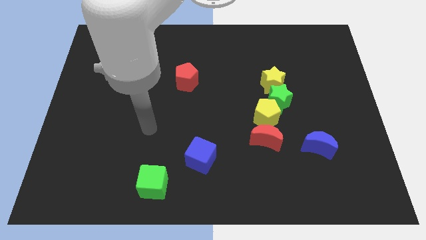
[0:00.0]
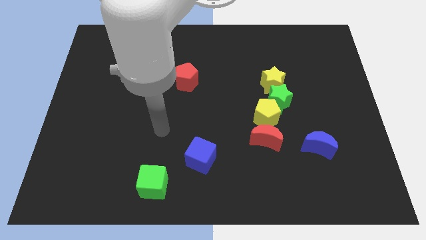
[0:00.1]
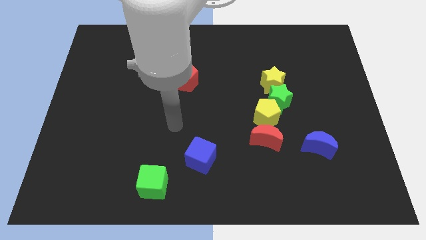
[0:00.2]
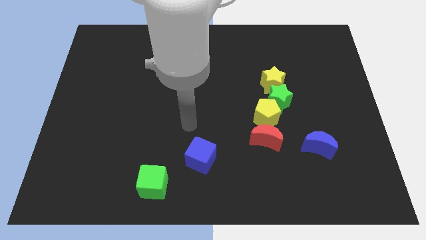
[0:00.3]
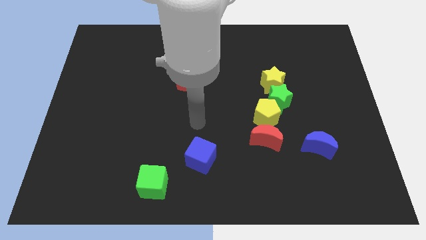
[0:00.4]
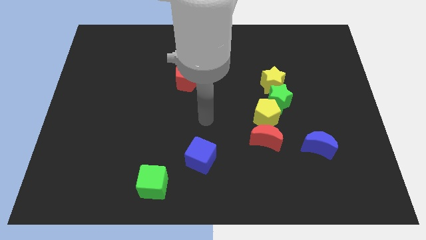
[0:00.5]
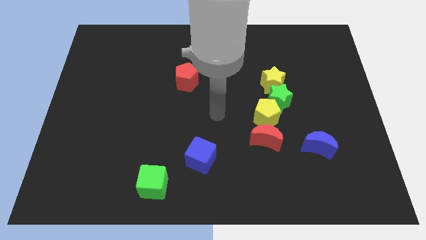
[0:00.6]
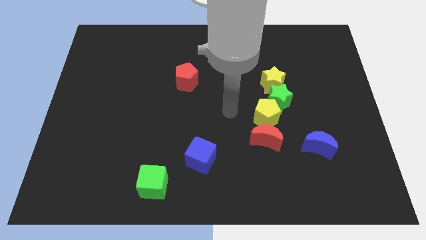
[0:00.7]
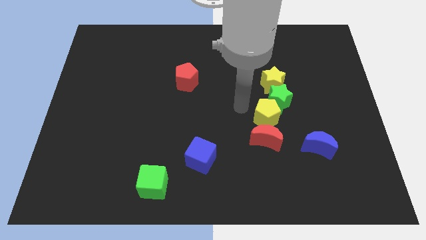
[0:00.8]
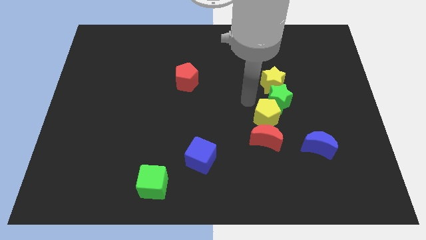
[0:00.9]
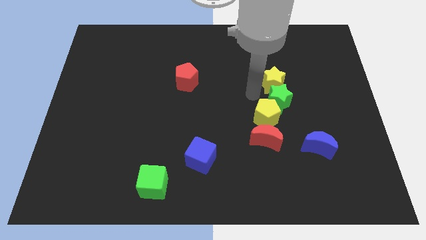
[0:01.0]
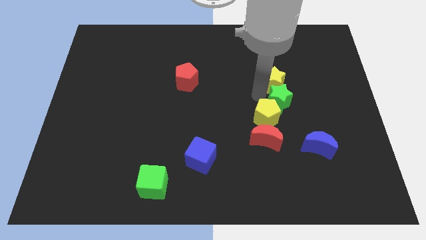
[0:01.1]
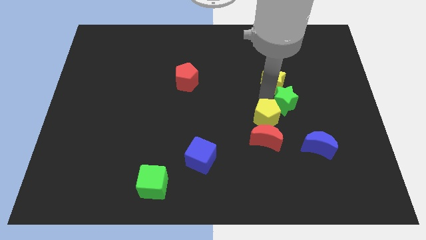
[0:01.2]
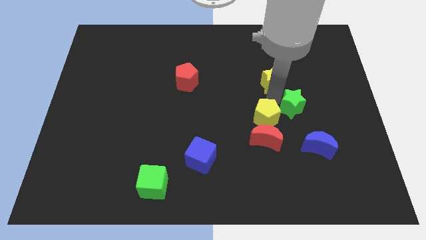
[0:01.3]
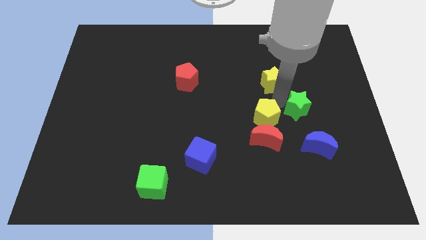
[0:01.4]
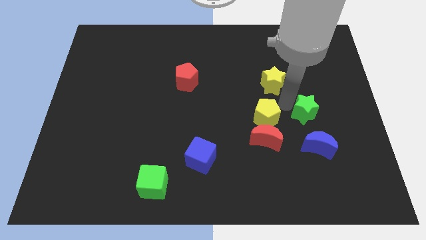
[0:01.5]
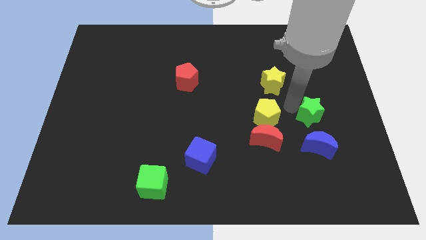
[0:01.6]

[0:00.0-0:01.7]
move the green star away from the yellow star and yellow pentagon

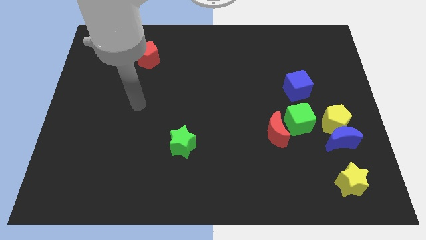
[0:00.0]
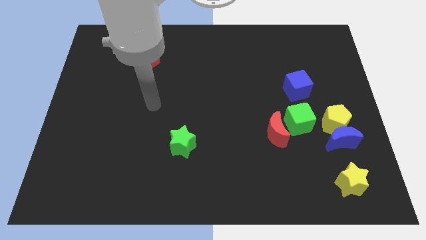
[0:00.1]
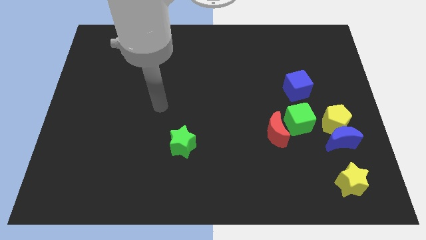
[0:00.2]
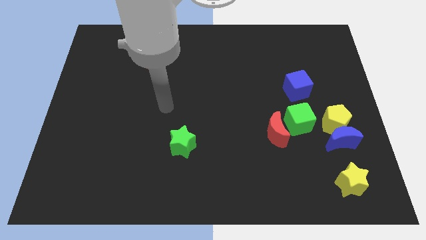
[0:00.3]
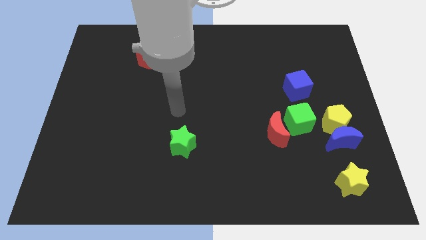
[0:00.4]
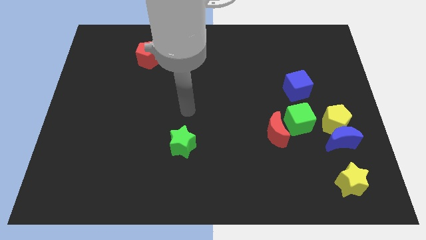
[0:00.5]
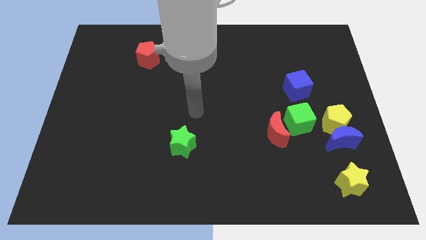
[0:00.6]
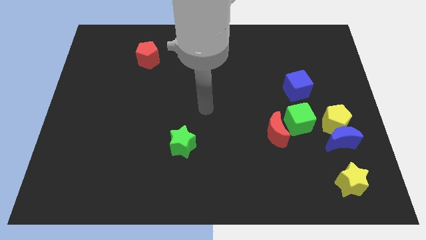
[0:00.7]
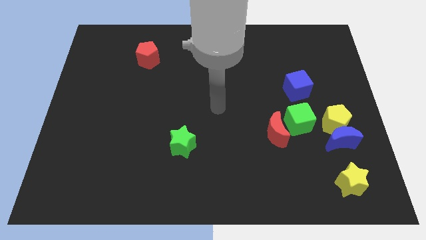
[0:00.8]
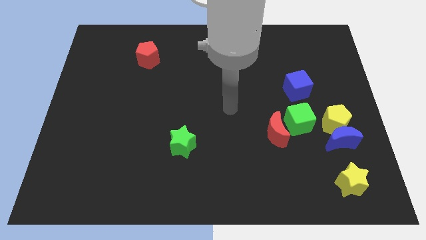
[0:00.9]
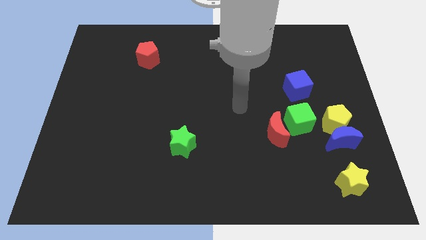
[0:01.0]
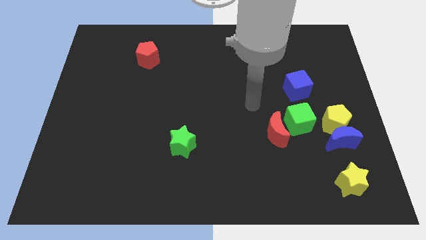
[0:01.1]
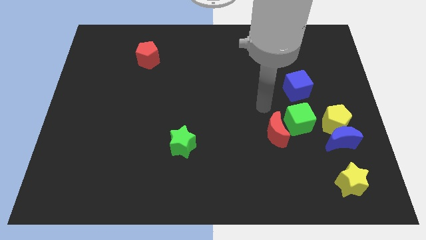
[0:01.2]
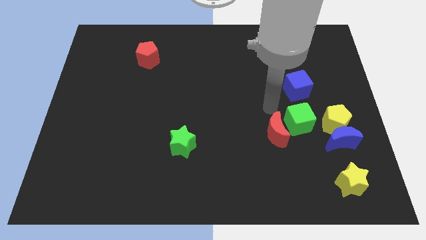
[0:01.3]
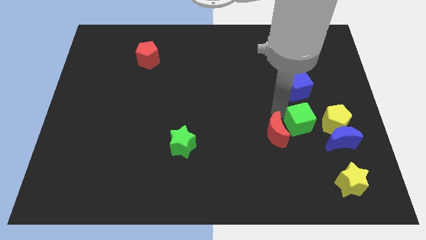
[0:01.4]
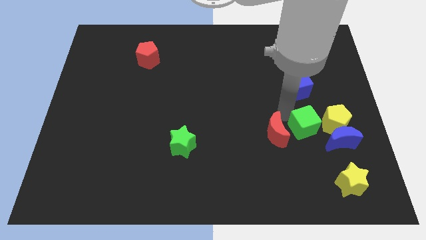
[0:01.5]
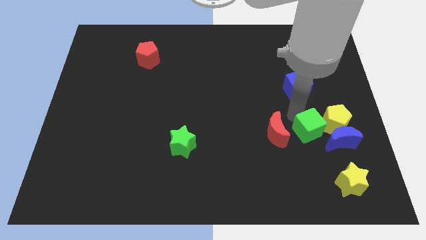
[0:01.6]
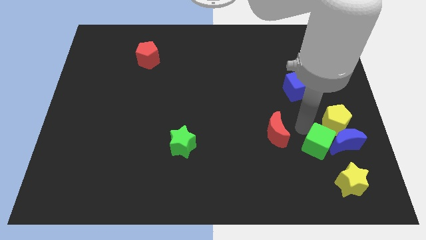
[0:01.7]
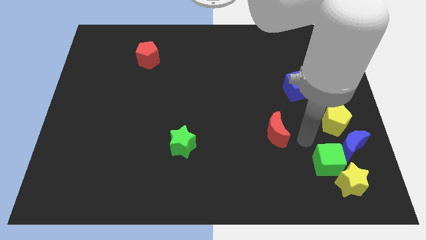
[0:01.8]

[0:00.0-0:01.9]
separate the red moon from the green cube

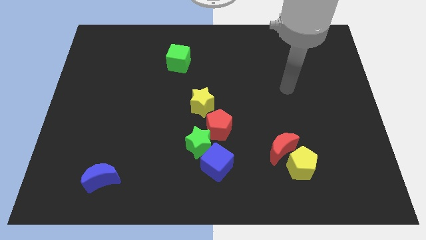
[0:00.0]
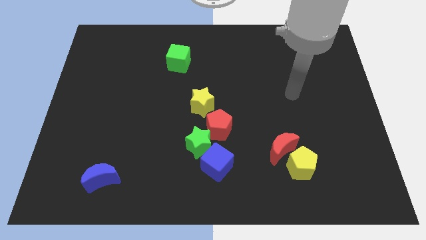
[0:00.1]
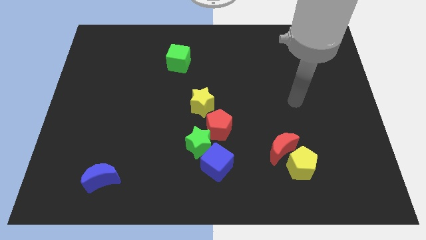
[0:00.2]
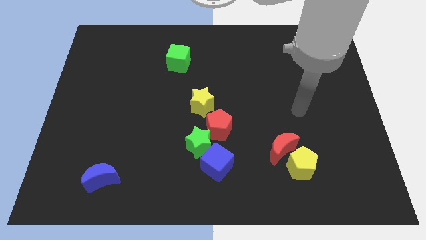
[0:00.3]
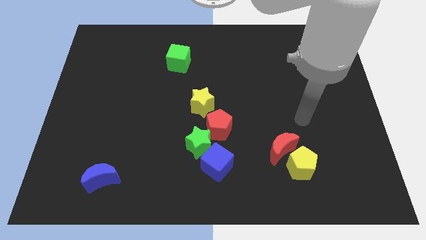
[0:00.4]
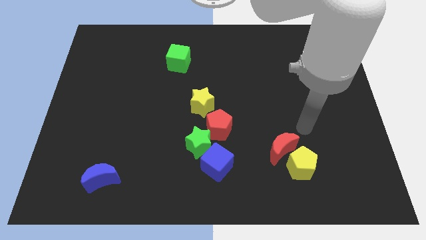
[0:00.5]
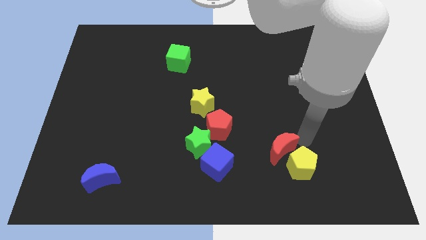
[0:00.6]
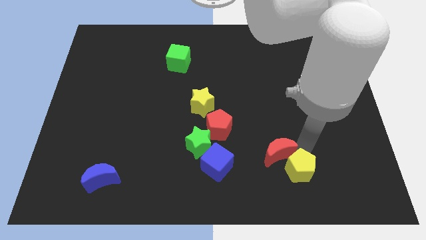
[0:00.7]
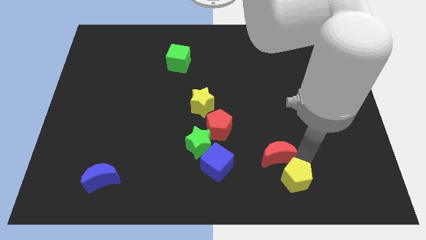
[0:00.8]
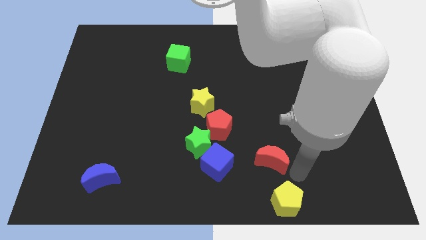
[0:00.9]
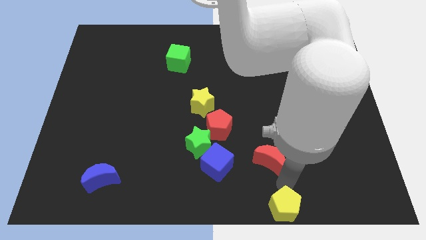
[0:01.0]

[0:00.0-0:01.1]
separate the red moon from the yellow pentagon

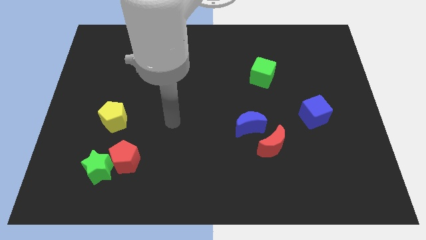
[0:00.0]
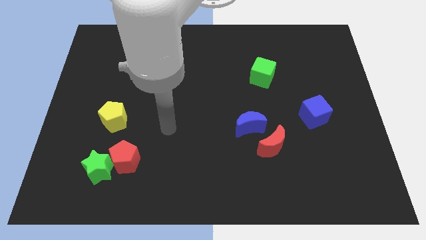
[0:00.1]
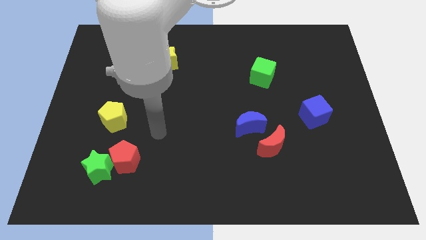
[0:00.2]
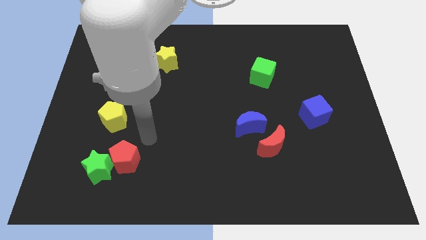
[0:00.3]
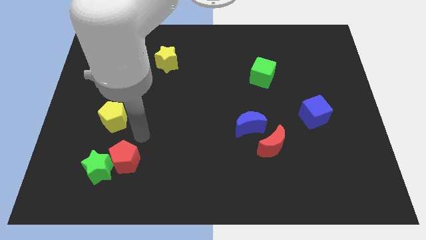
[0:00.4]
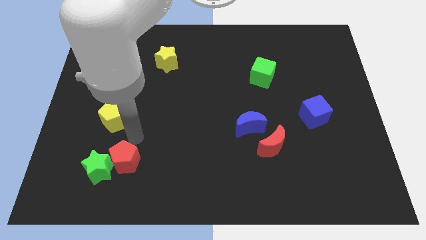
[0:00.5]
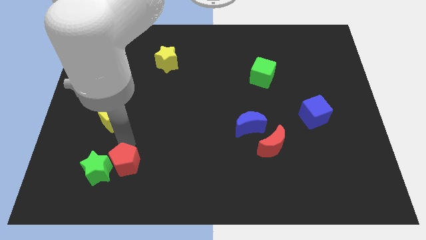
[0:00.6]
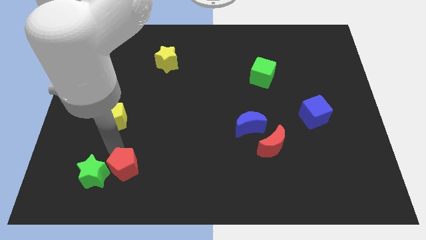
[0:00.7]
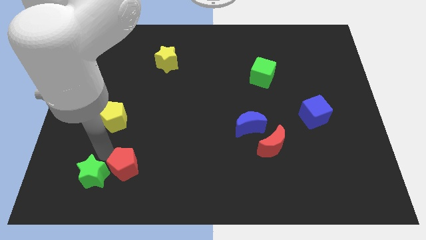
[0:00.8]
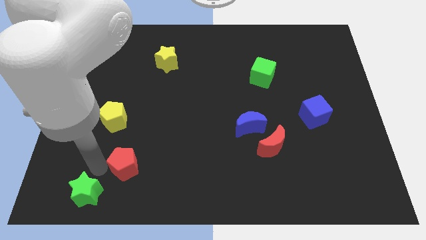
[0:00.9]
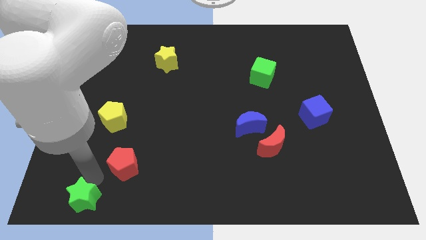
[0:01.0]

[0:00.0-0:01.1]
separate the red pentagon from the green star

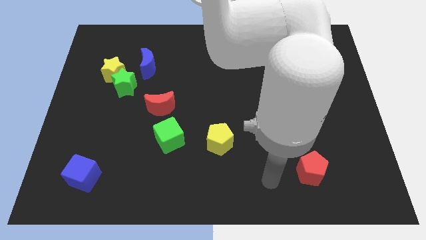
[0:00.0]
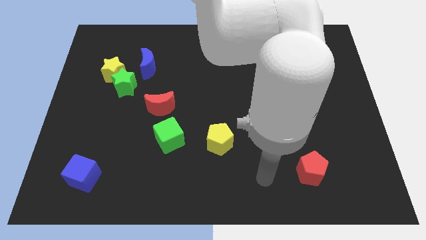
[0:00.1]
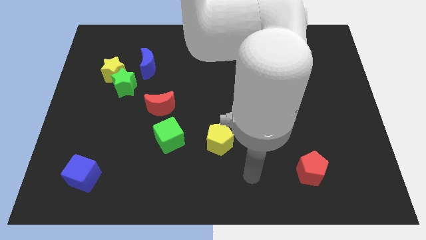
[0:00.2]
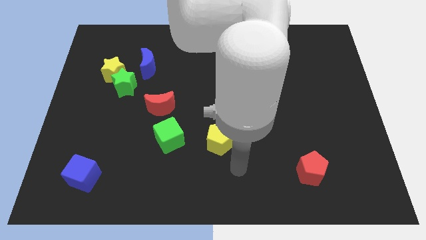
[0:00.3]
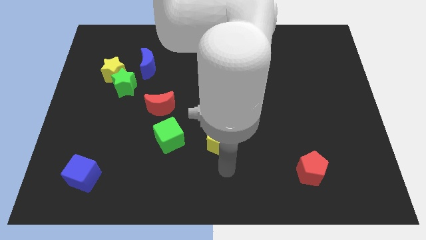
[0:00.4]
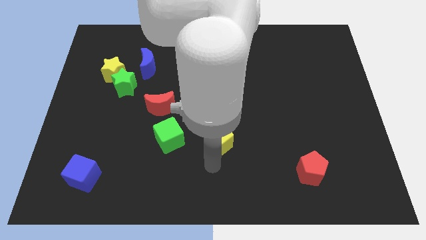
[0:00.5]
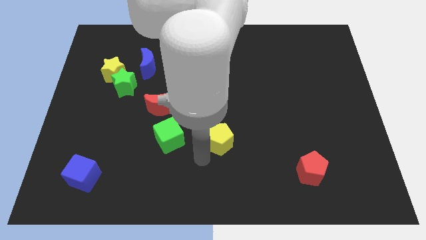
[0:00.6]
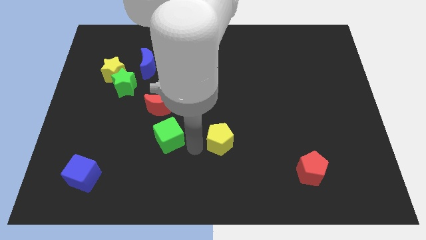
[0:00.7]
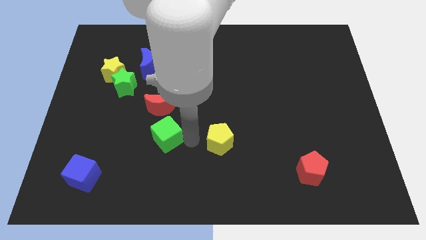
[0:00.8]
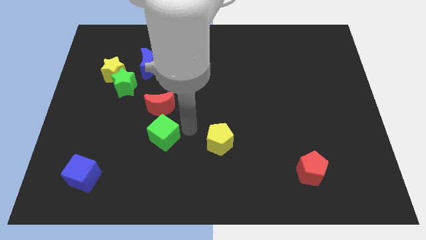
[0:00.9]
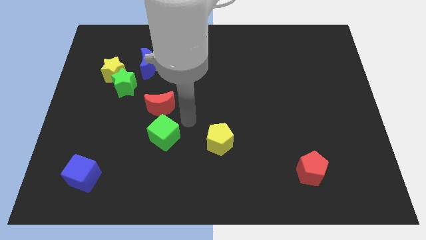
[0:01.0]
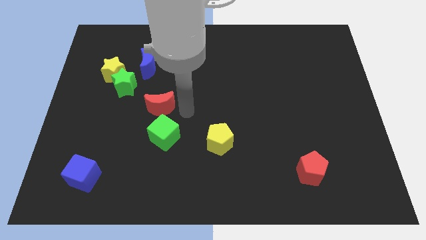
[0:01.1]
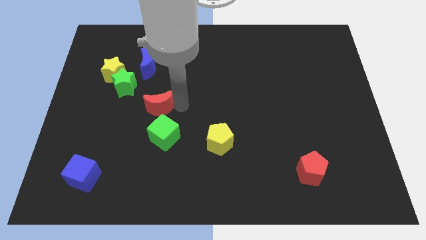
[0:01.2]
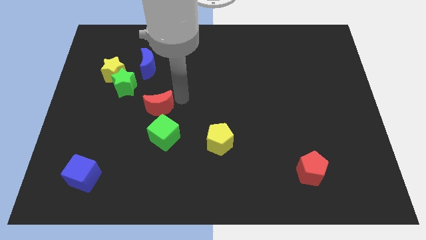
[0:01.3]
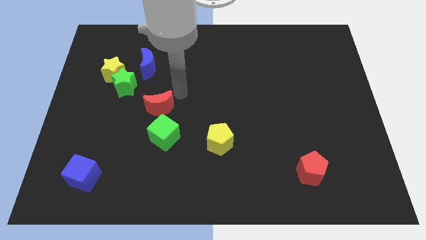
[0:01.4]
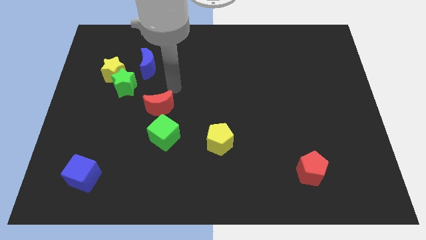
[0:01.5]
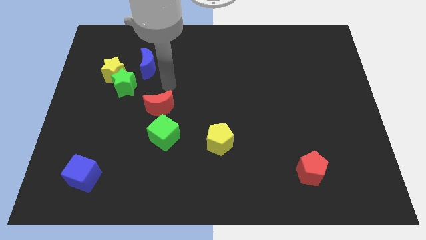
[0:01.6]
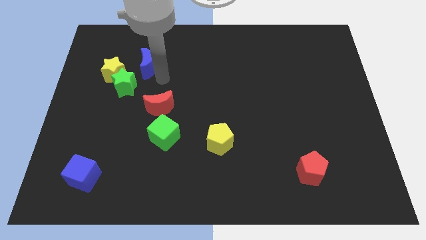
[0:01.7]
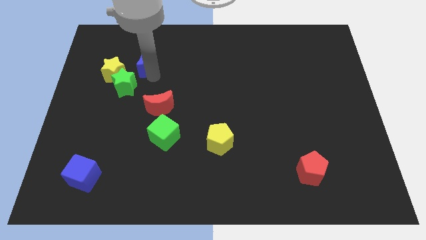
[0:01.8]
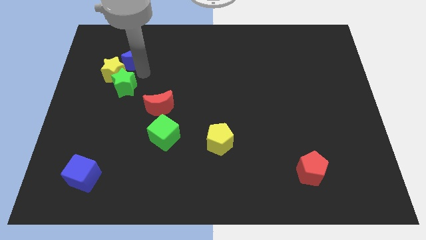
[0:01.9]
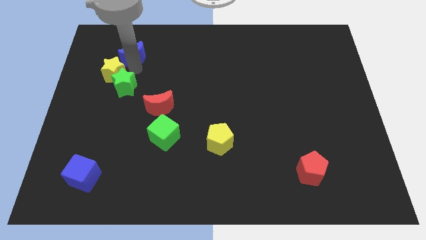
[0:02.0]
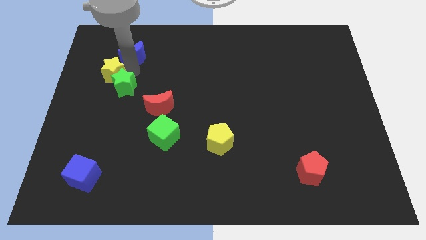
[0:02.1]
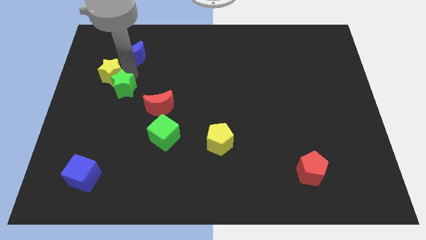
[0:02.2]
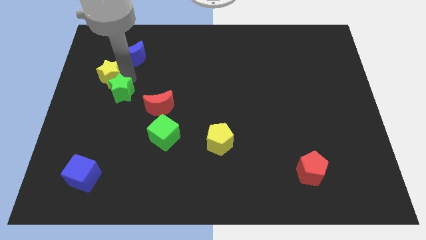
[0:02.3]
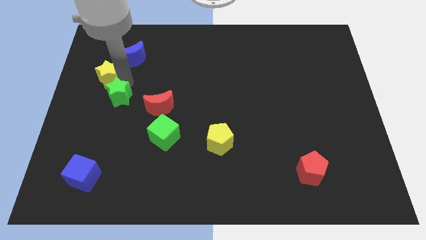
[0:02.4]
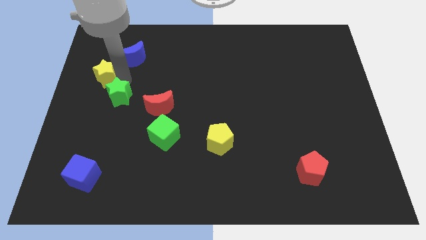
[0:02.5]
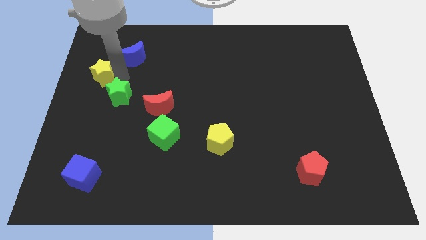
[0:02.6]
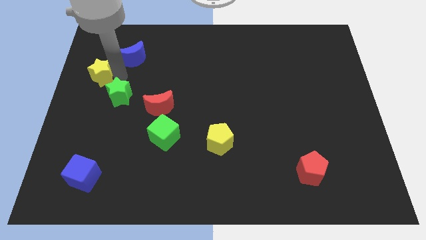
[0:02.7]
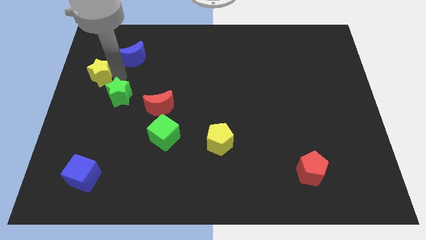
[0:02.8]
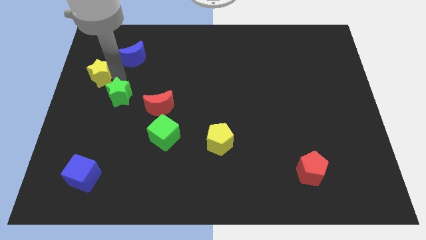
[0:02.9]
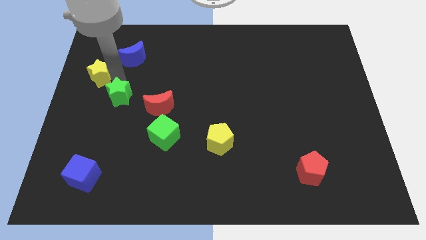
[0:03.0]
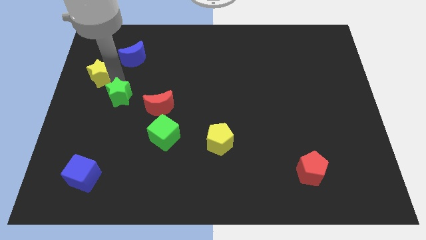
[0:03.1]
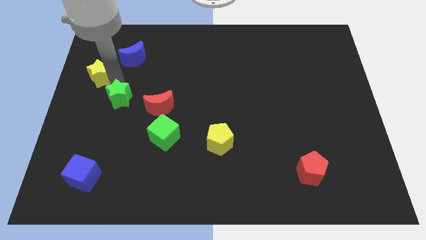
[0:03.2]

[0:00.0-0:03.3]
pull the green star apart from the yellow star and blue moon

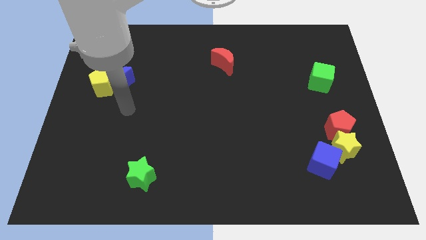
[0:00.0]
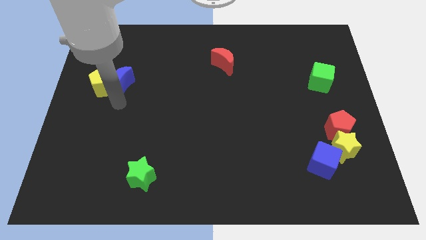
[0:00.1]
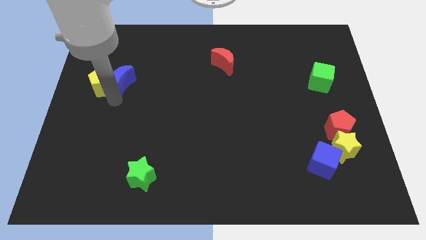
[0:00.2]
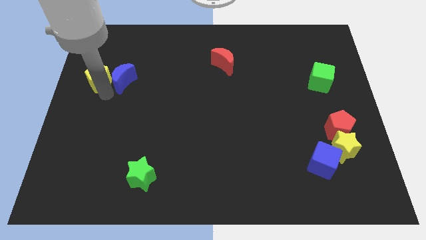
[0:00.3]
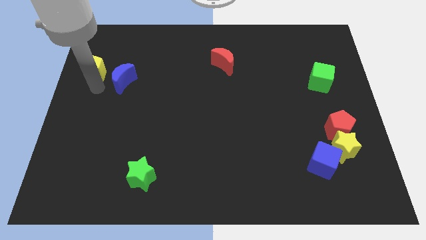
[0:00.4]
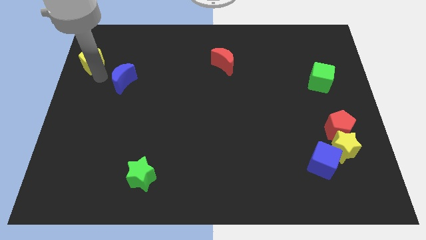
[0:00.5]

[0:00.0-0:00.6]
separate the blue moon from the yellow pentagon
